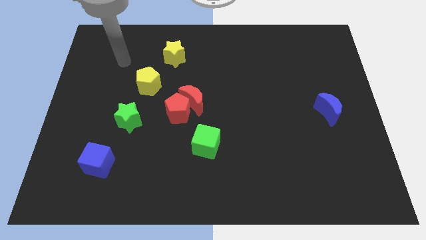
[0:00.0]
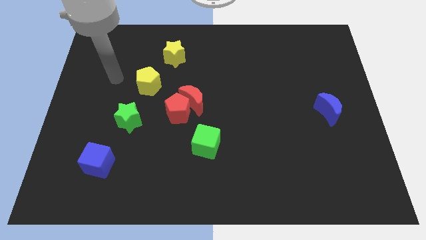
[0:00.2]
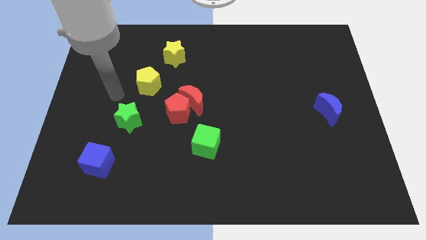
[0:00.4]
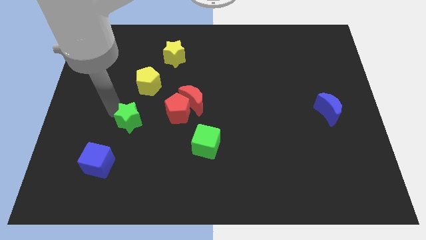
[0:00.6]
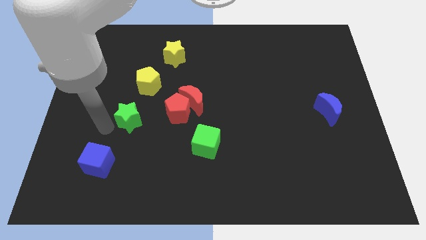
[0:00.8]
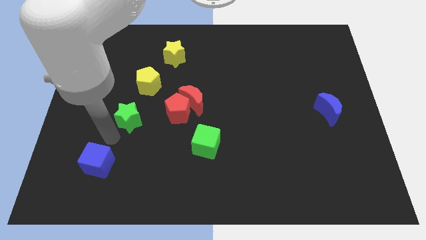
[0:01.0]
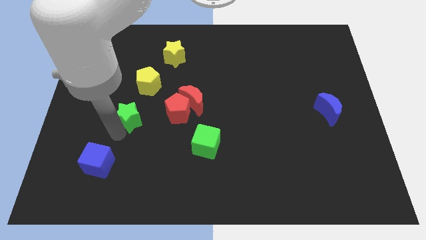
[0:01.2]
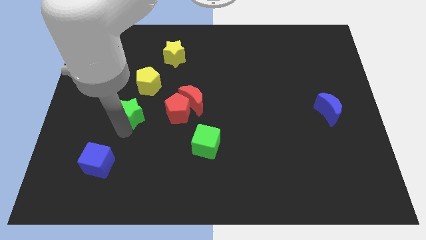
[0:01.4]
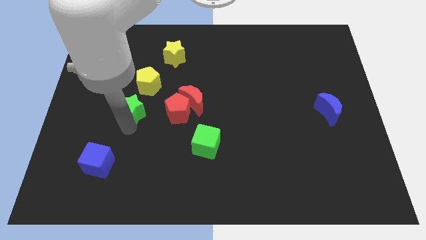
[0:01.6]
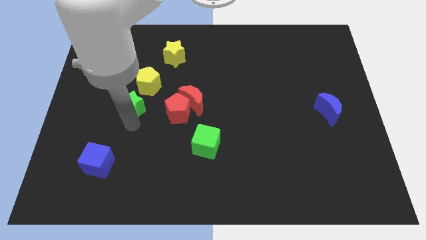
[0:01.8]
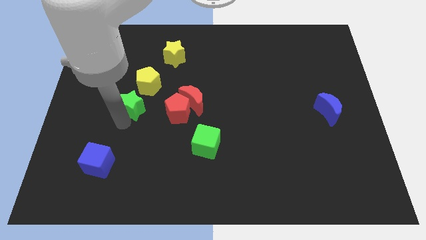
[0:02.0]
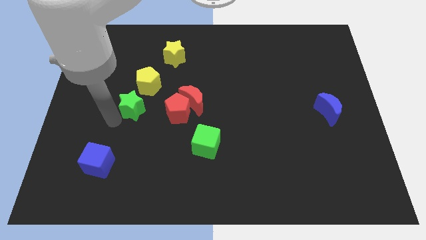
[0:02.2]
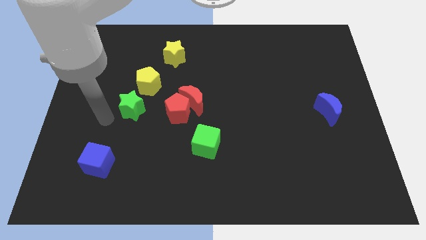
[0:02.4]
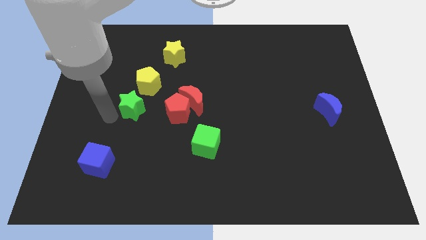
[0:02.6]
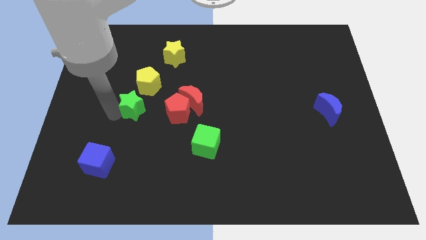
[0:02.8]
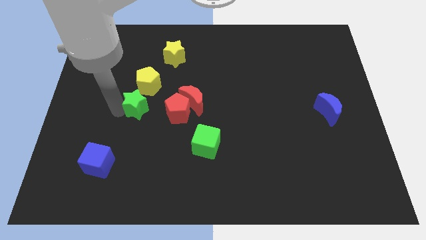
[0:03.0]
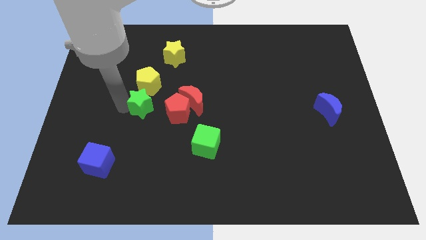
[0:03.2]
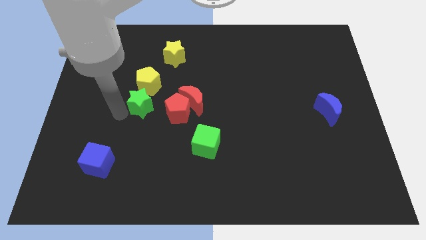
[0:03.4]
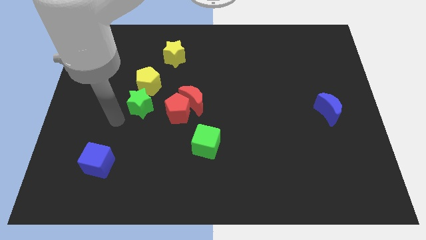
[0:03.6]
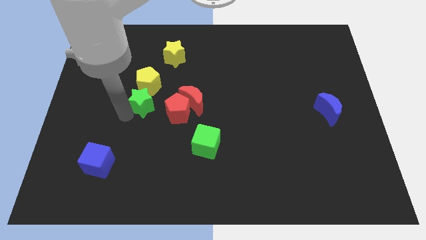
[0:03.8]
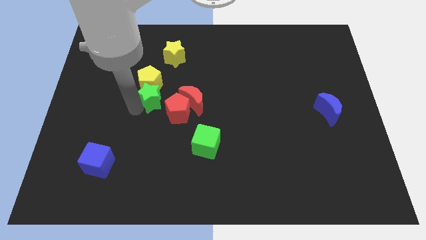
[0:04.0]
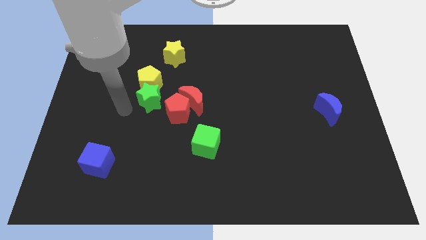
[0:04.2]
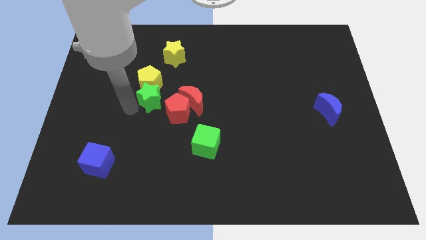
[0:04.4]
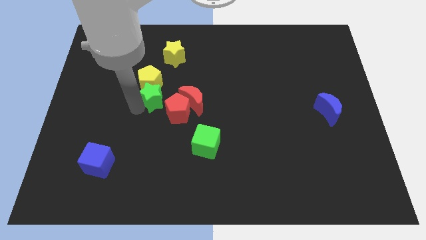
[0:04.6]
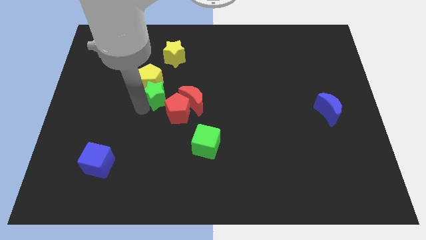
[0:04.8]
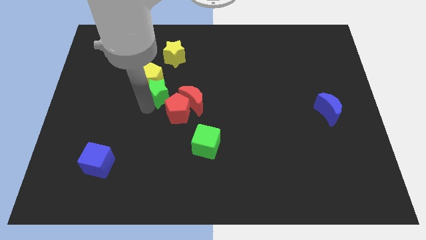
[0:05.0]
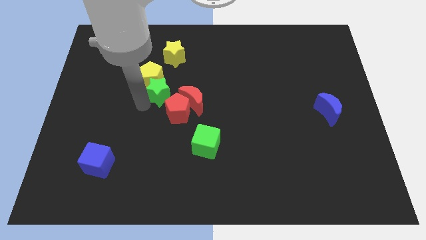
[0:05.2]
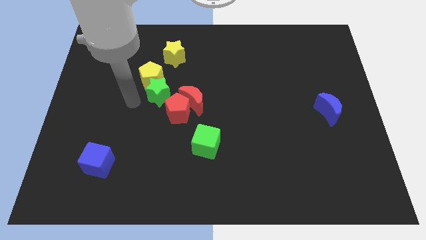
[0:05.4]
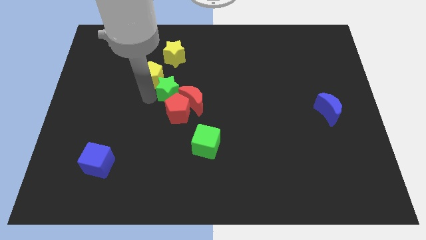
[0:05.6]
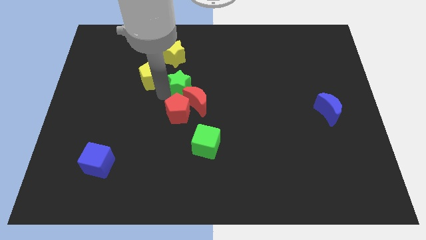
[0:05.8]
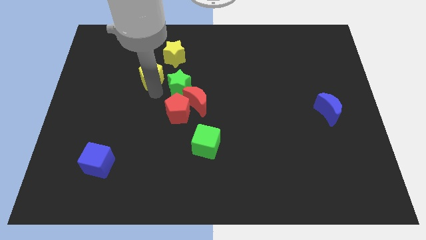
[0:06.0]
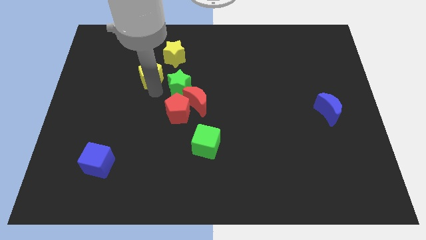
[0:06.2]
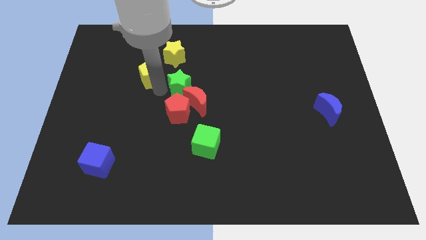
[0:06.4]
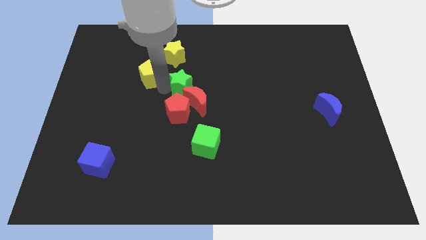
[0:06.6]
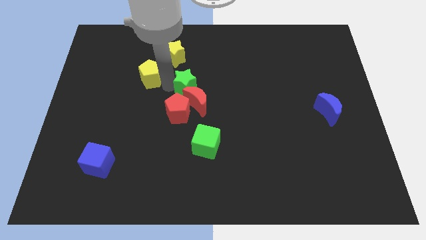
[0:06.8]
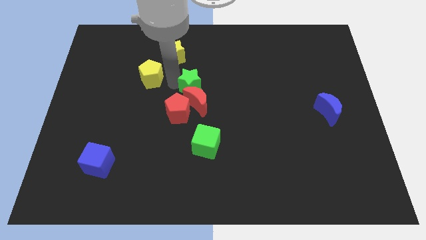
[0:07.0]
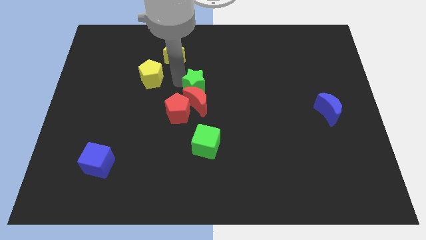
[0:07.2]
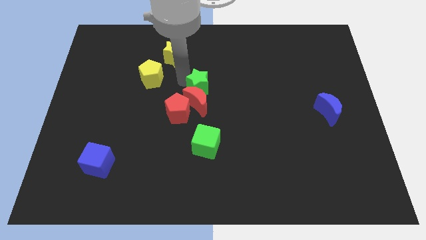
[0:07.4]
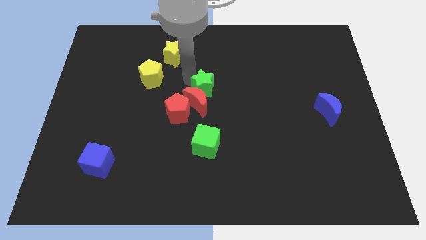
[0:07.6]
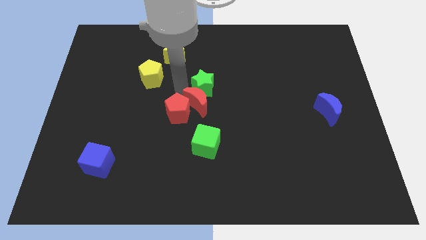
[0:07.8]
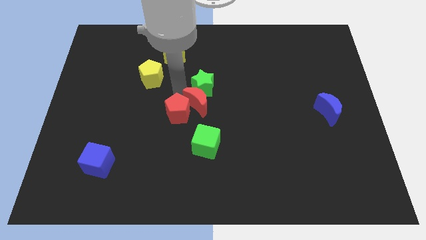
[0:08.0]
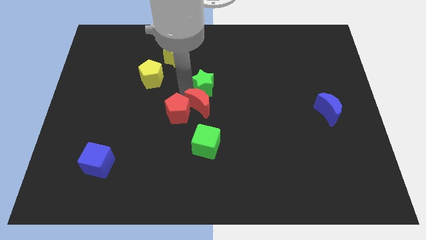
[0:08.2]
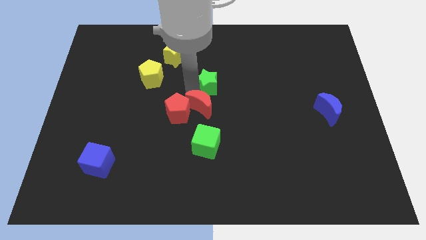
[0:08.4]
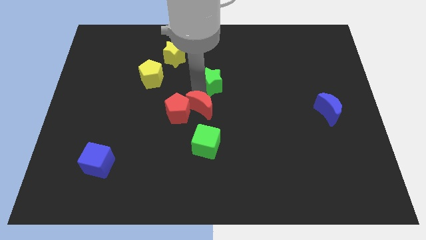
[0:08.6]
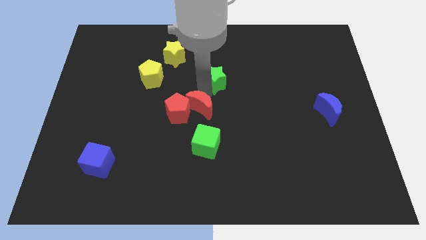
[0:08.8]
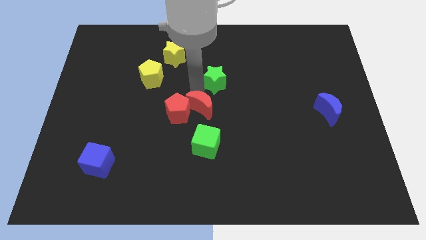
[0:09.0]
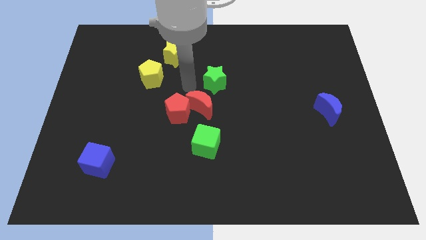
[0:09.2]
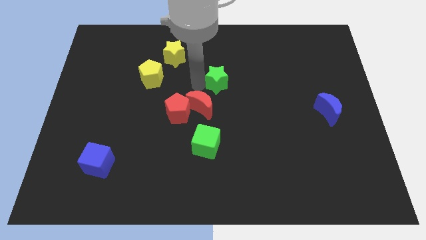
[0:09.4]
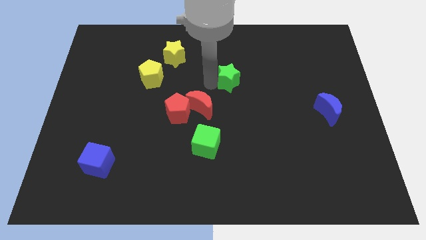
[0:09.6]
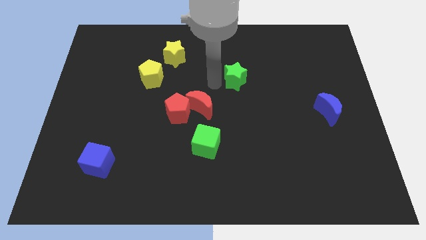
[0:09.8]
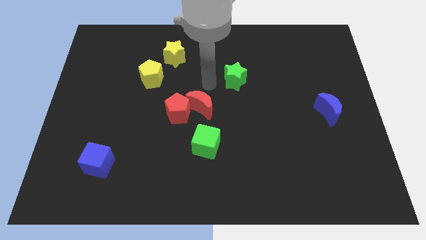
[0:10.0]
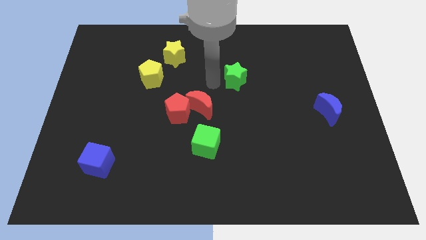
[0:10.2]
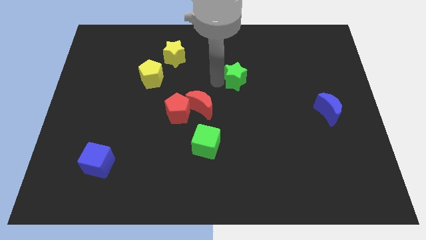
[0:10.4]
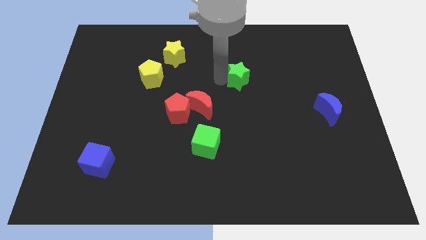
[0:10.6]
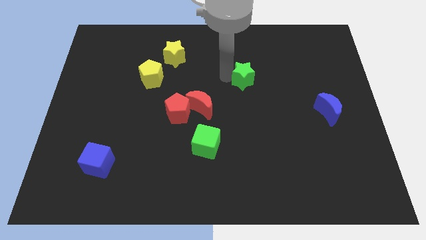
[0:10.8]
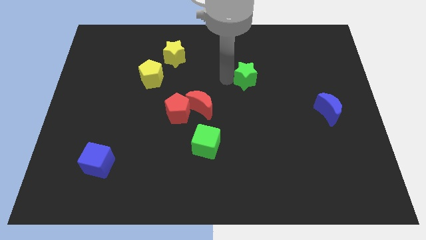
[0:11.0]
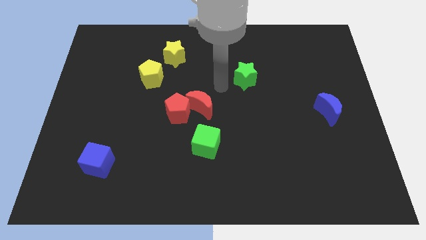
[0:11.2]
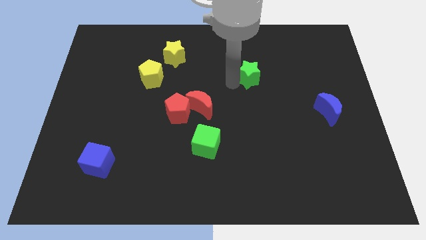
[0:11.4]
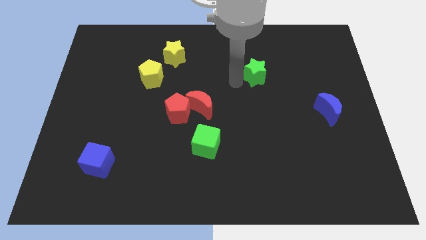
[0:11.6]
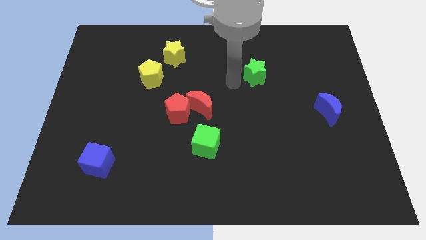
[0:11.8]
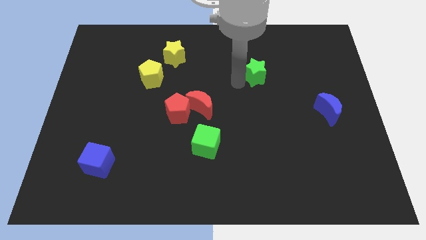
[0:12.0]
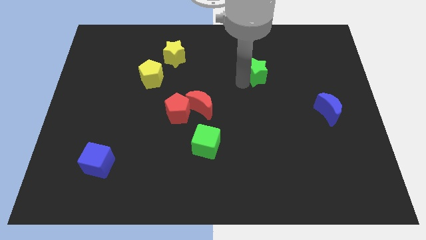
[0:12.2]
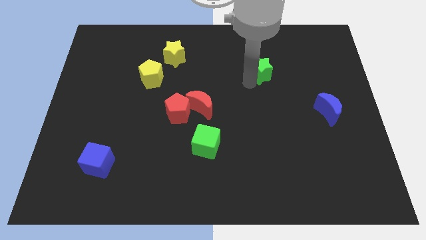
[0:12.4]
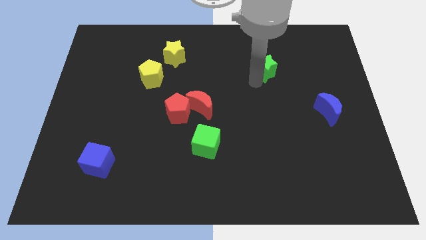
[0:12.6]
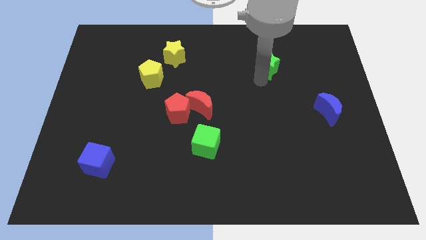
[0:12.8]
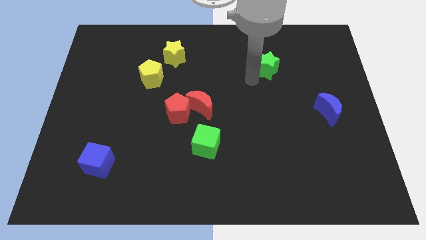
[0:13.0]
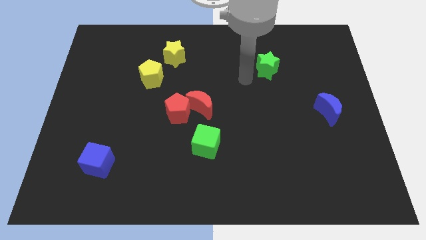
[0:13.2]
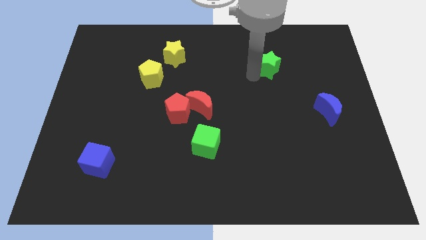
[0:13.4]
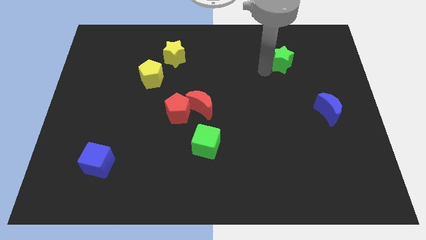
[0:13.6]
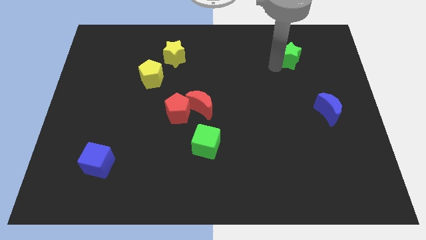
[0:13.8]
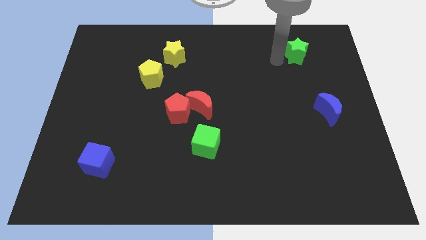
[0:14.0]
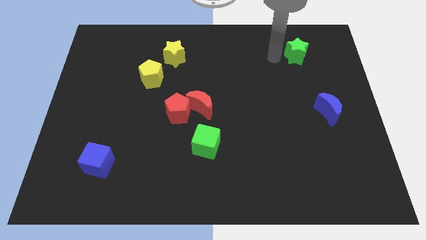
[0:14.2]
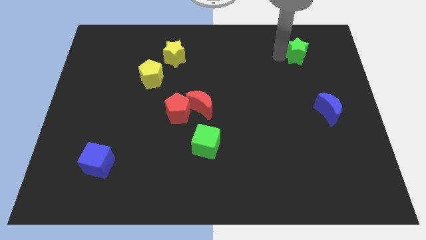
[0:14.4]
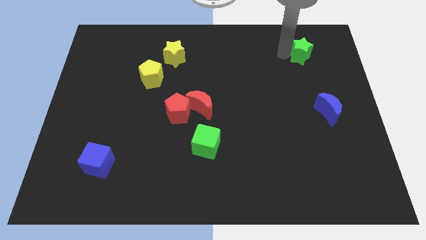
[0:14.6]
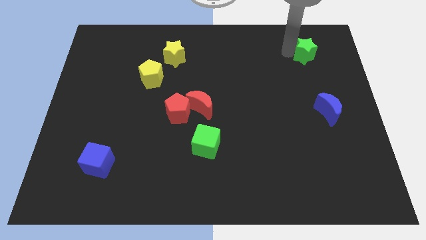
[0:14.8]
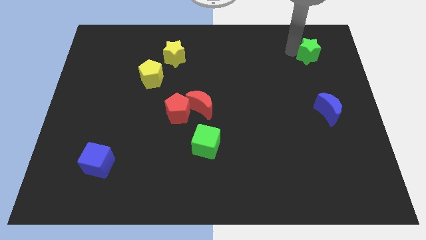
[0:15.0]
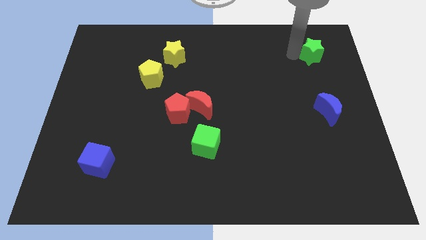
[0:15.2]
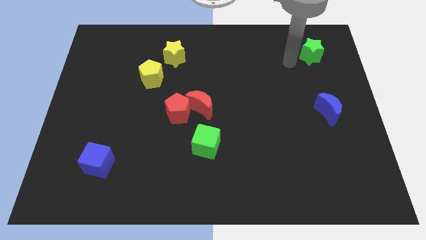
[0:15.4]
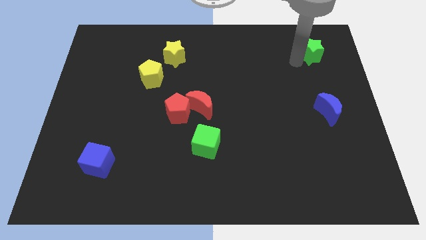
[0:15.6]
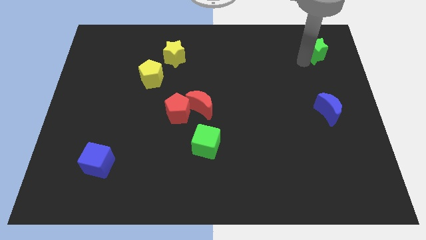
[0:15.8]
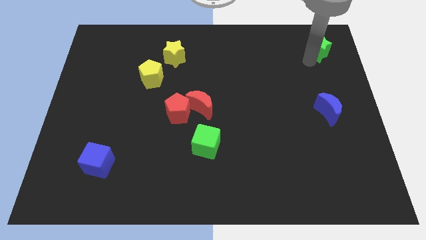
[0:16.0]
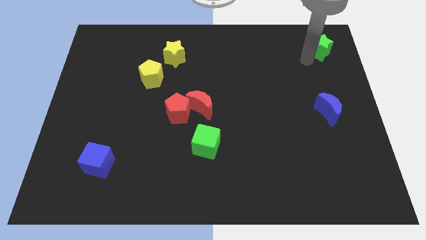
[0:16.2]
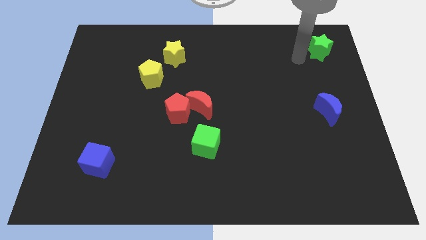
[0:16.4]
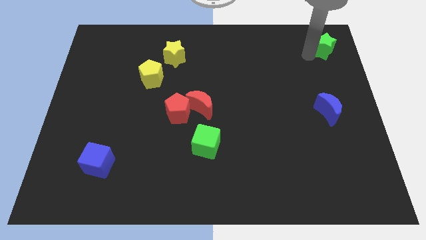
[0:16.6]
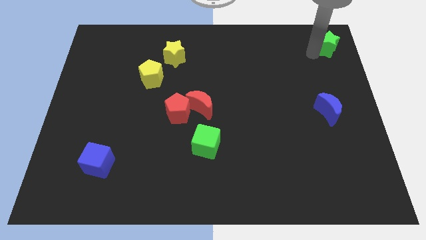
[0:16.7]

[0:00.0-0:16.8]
put the green star to the top right corner
